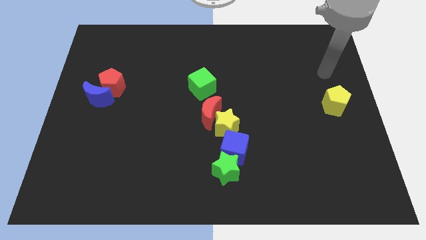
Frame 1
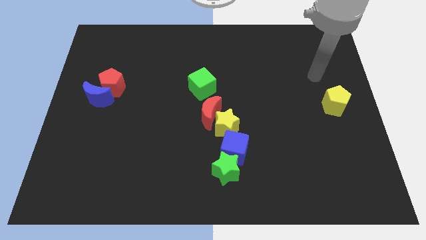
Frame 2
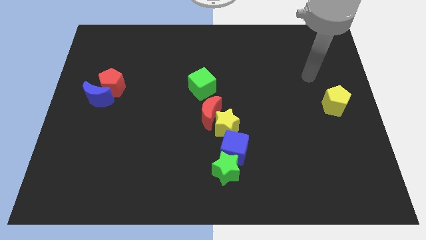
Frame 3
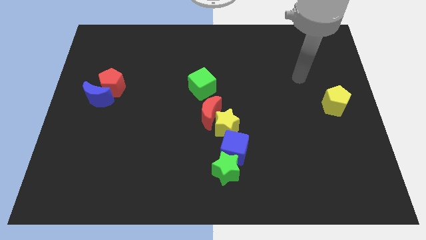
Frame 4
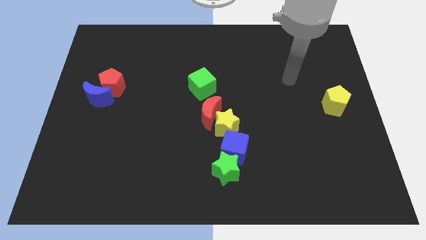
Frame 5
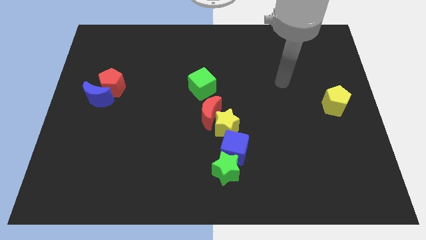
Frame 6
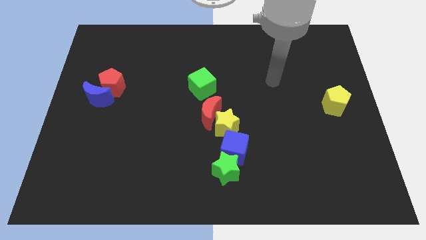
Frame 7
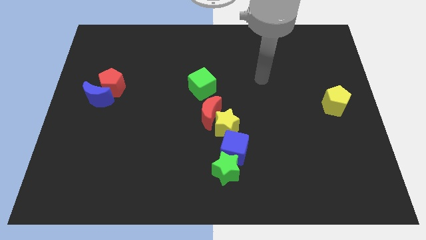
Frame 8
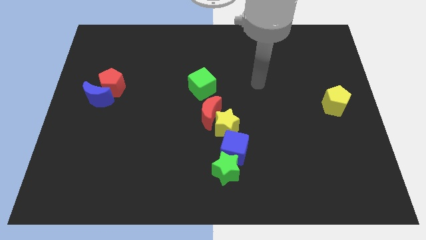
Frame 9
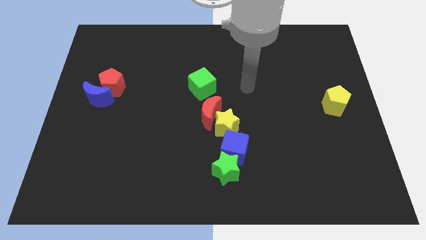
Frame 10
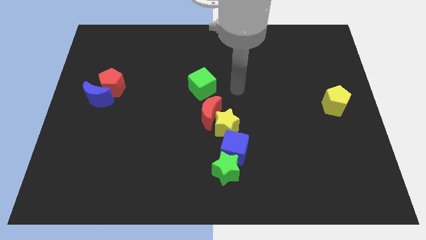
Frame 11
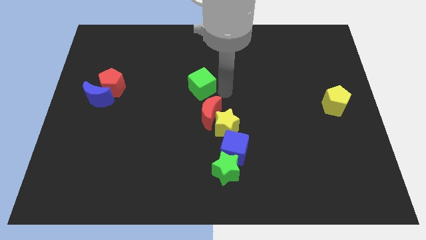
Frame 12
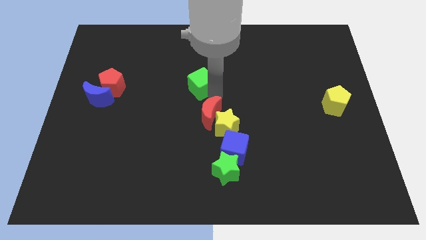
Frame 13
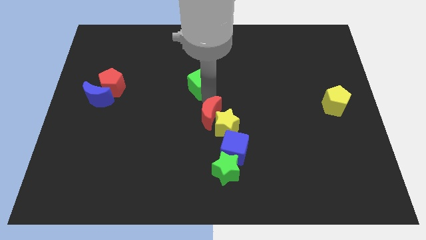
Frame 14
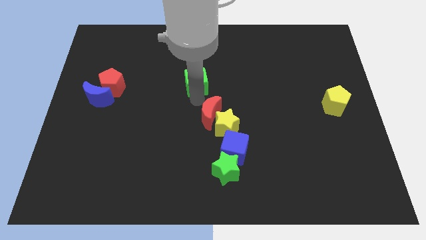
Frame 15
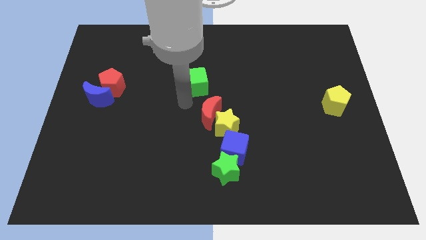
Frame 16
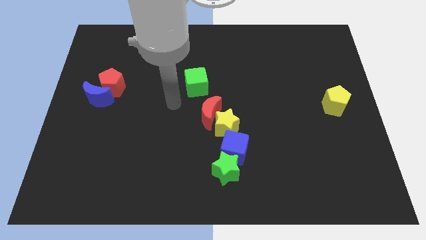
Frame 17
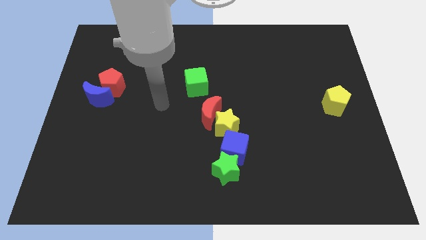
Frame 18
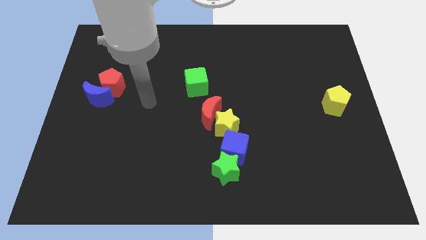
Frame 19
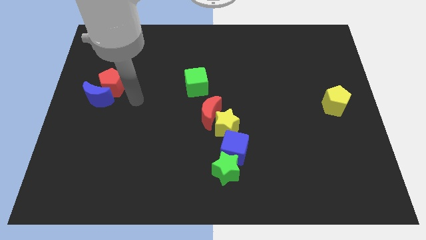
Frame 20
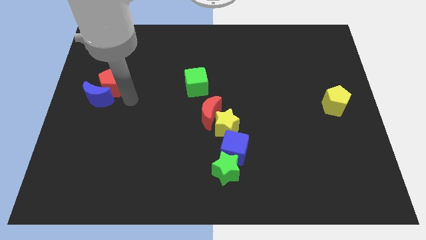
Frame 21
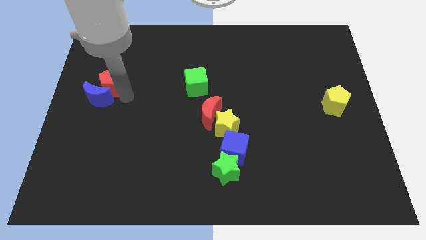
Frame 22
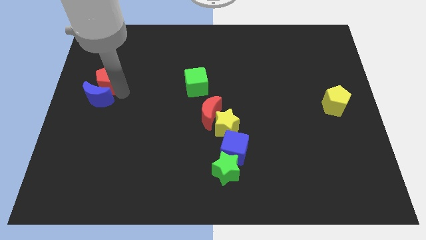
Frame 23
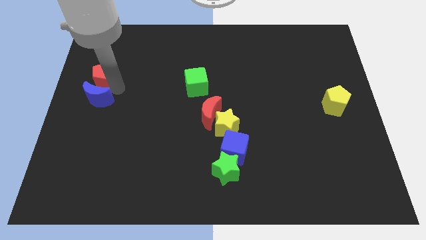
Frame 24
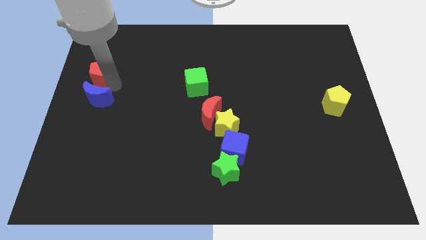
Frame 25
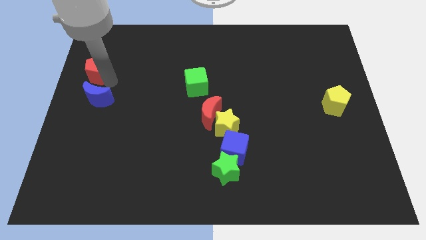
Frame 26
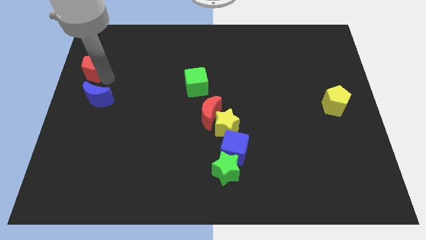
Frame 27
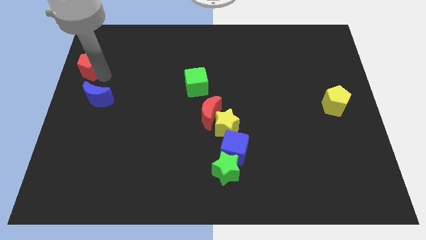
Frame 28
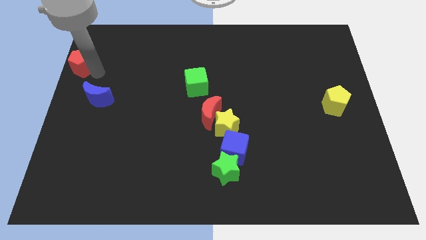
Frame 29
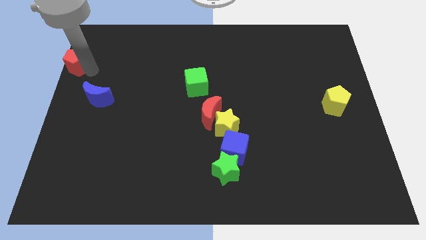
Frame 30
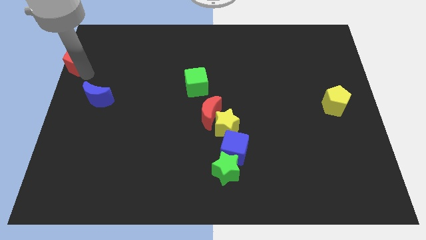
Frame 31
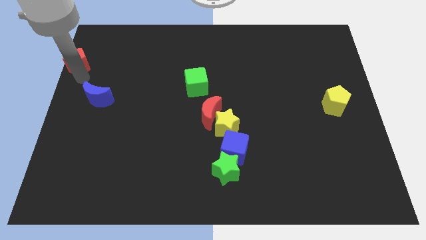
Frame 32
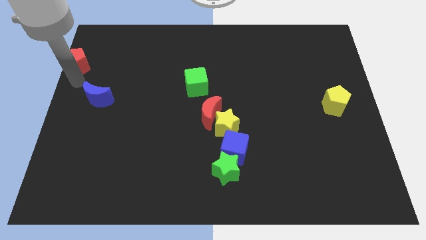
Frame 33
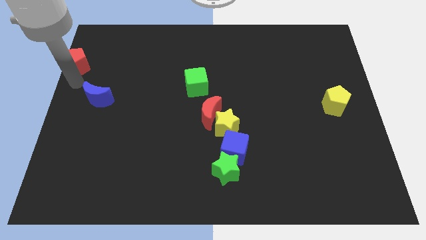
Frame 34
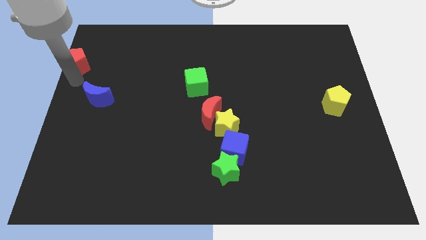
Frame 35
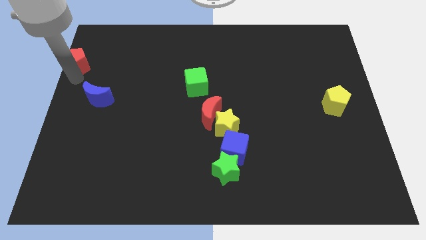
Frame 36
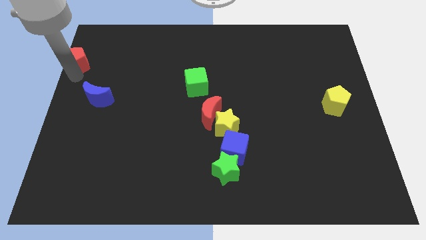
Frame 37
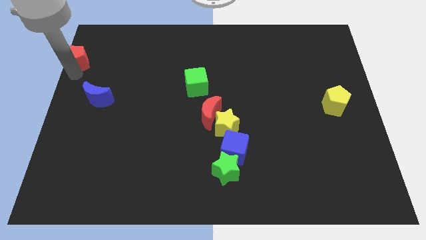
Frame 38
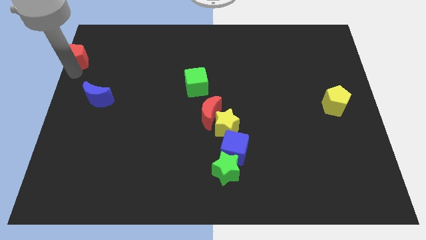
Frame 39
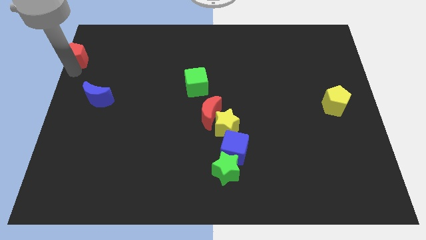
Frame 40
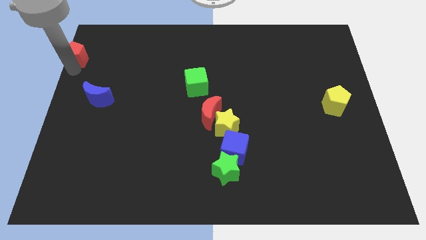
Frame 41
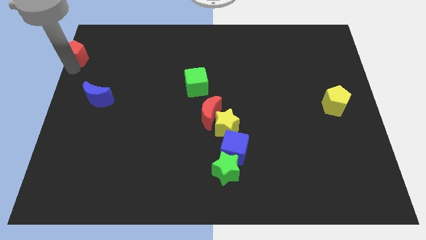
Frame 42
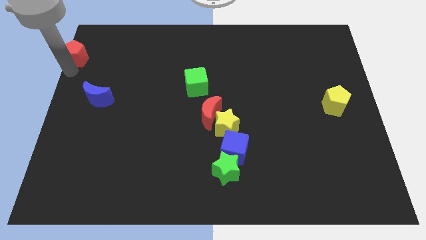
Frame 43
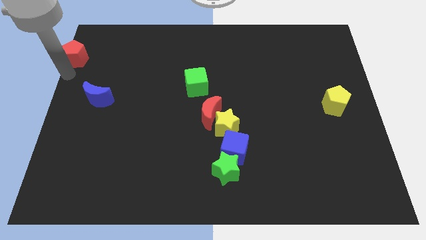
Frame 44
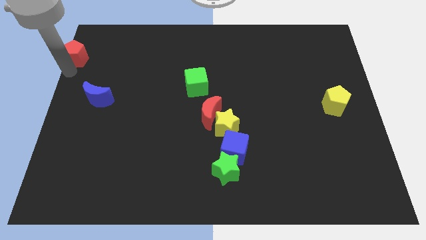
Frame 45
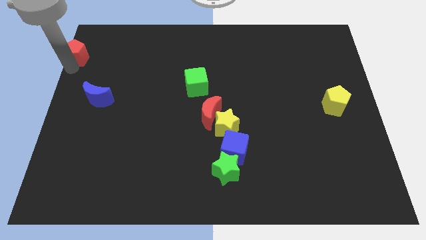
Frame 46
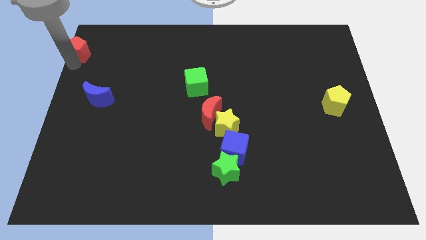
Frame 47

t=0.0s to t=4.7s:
push the red pentagon to the upper left corner

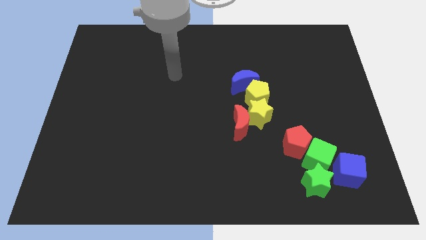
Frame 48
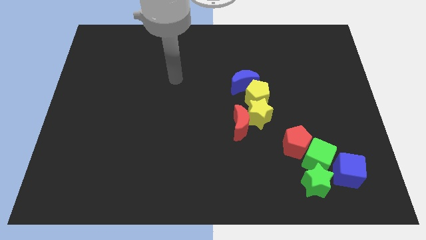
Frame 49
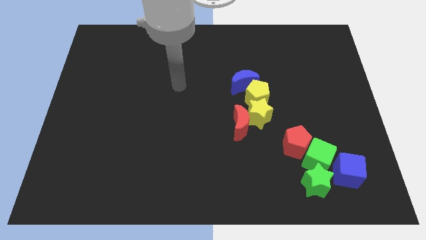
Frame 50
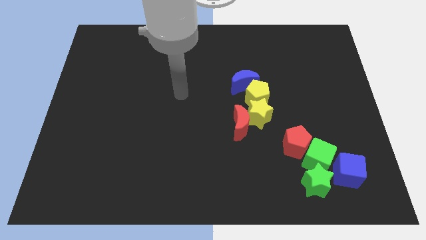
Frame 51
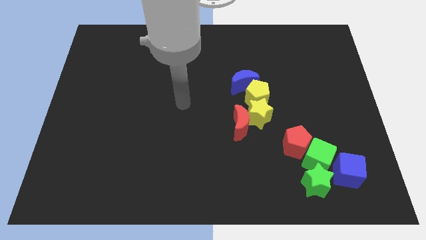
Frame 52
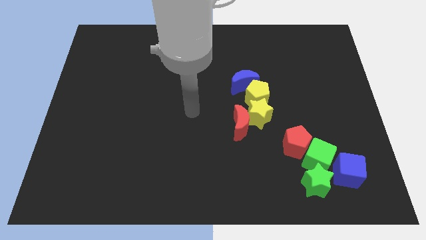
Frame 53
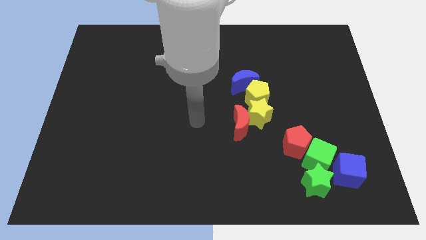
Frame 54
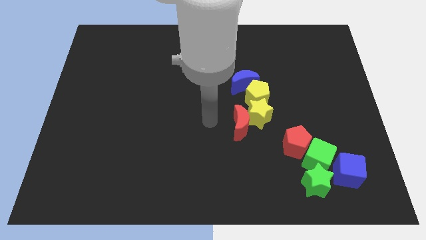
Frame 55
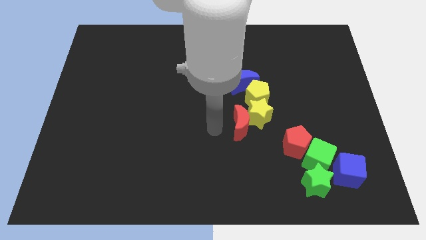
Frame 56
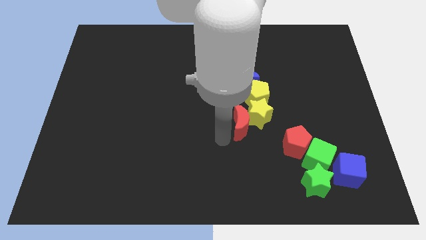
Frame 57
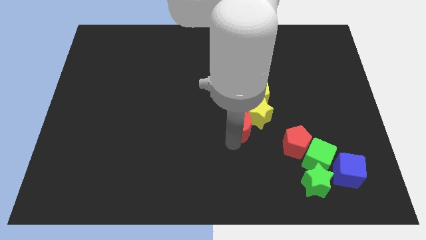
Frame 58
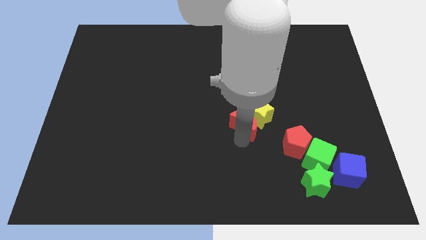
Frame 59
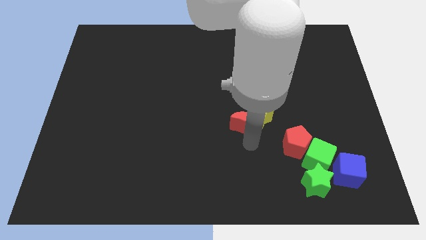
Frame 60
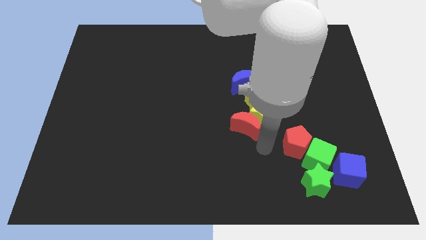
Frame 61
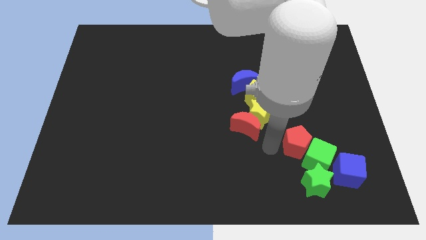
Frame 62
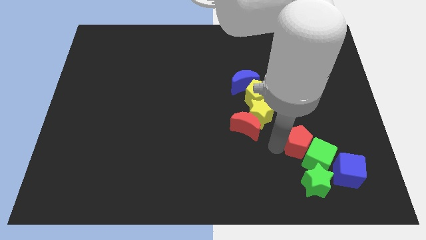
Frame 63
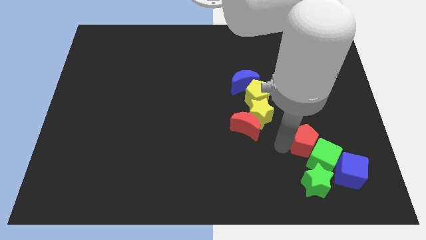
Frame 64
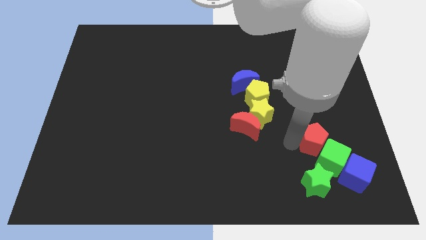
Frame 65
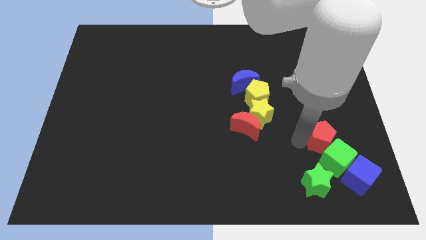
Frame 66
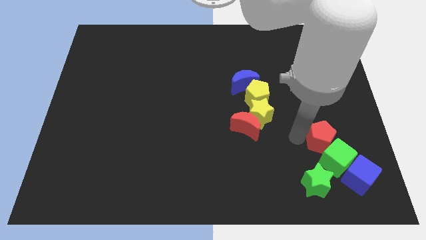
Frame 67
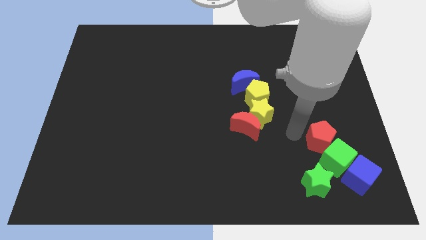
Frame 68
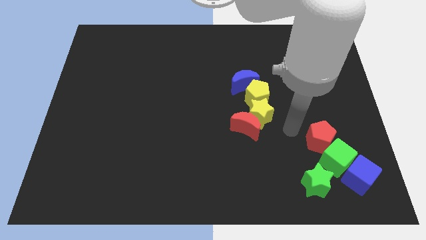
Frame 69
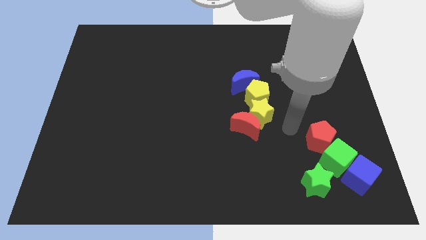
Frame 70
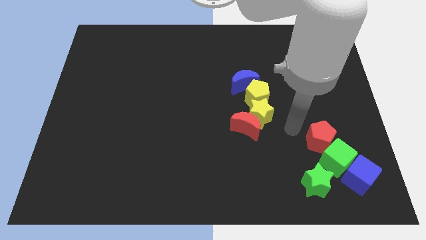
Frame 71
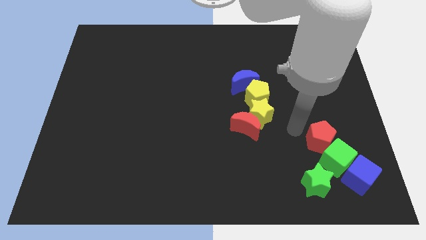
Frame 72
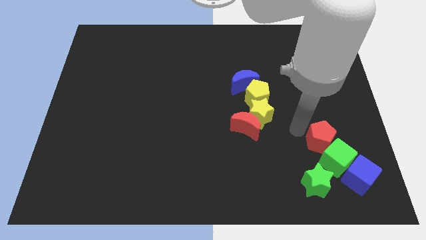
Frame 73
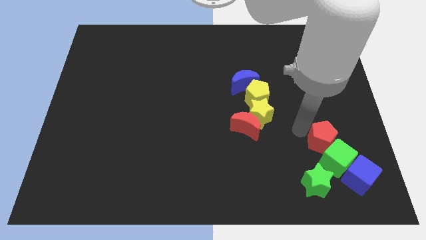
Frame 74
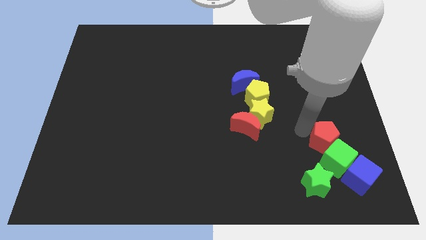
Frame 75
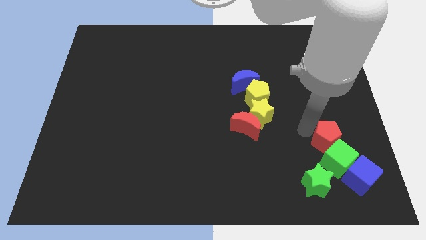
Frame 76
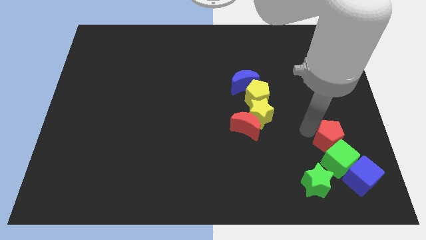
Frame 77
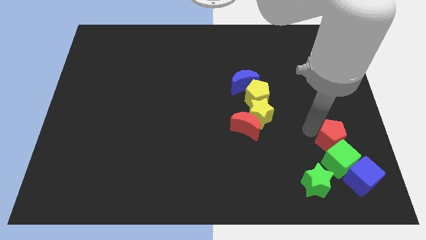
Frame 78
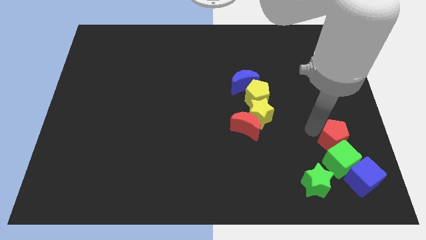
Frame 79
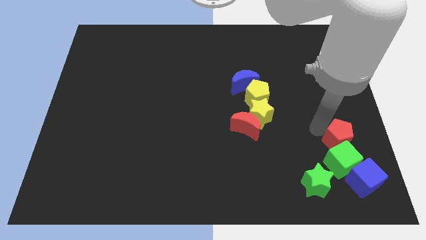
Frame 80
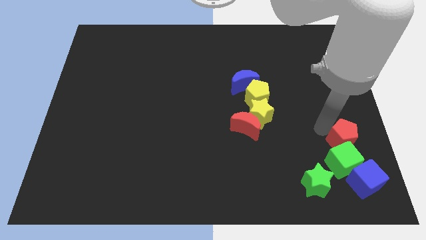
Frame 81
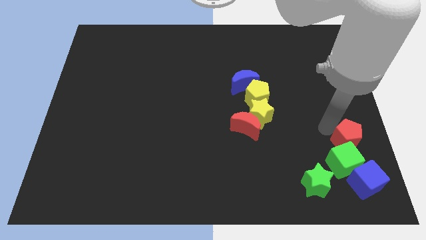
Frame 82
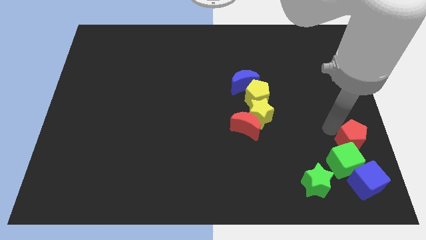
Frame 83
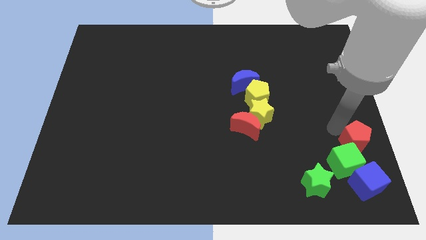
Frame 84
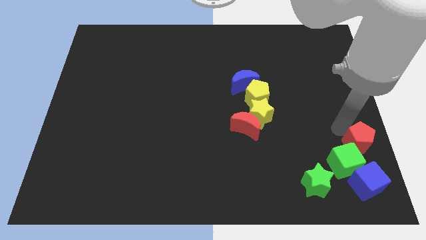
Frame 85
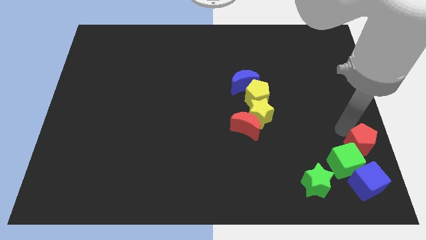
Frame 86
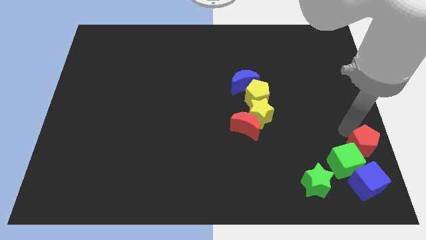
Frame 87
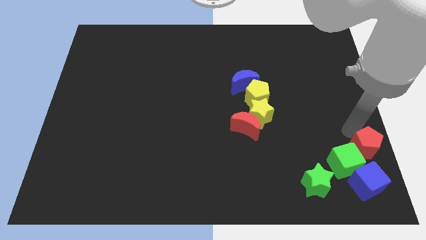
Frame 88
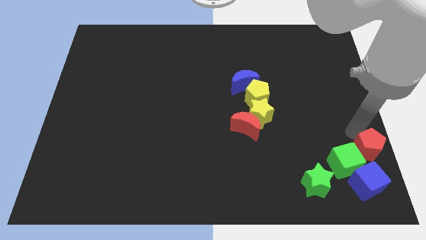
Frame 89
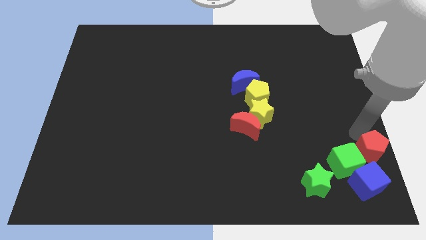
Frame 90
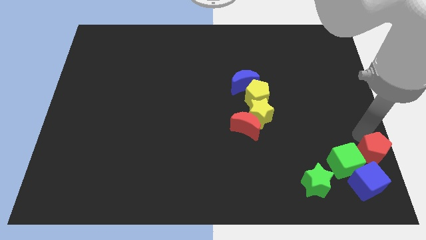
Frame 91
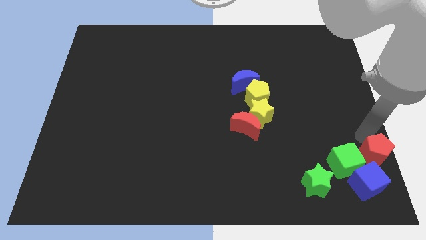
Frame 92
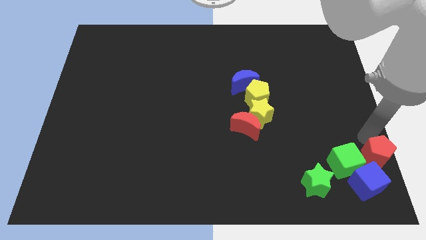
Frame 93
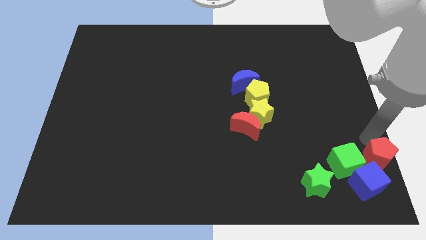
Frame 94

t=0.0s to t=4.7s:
put the red pentagon to the lower right corner
